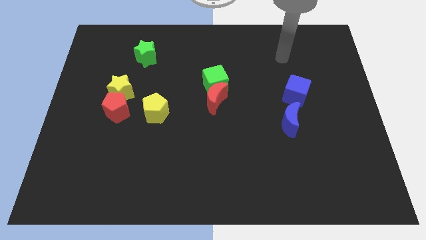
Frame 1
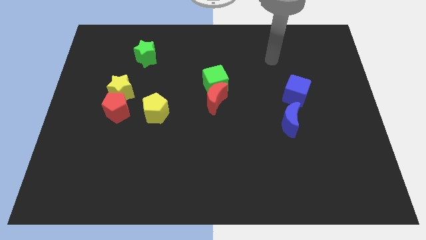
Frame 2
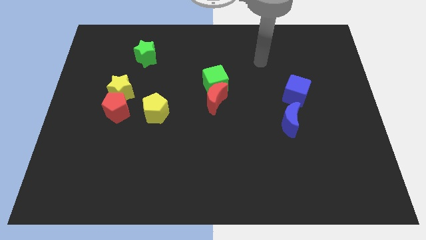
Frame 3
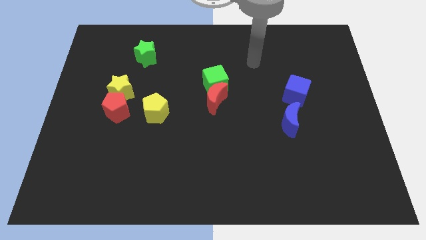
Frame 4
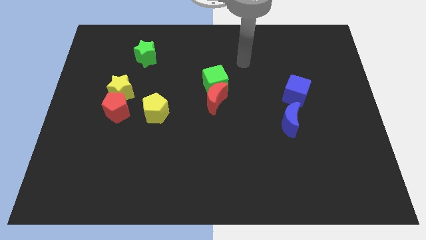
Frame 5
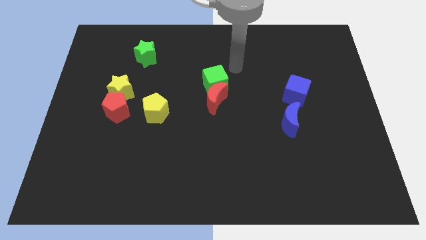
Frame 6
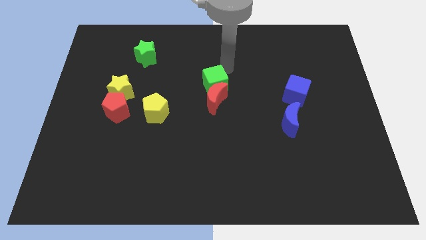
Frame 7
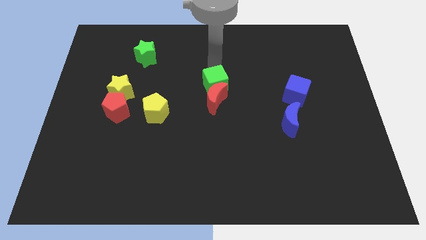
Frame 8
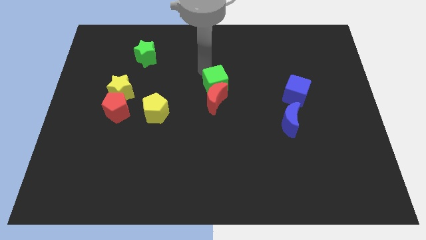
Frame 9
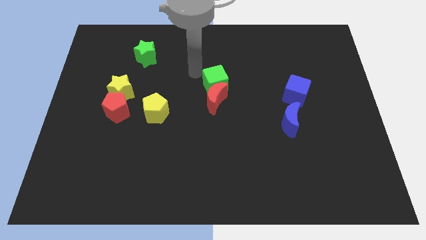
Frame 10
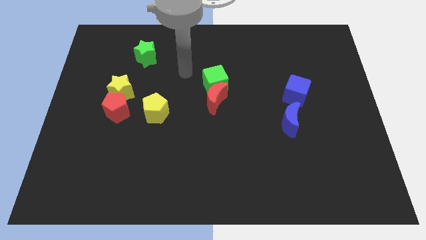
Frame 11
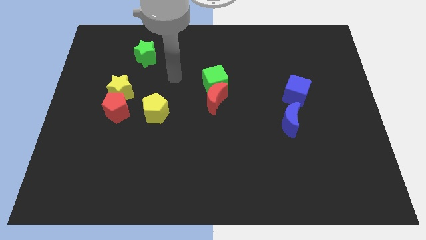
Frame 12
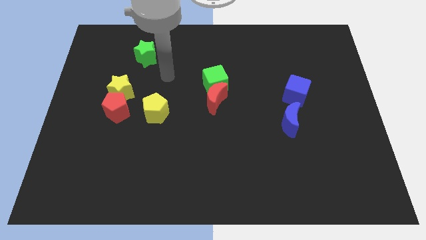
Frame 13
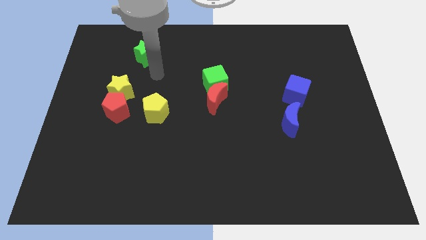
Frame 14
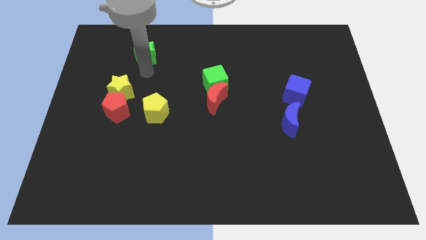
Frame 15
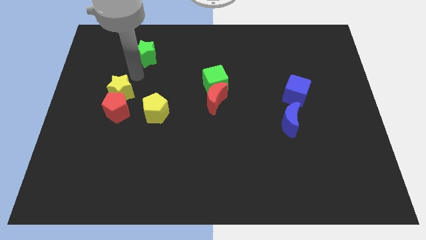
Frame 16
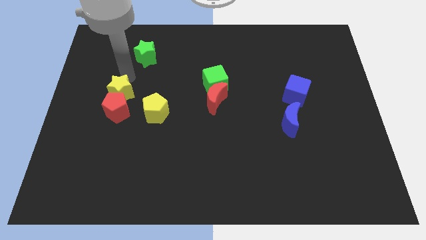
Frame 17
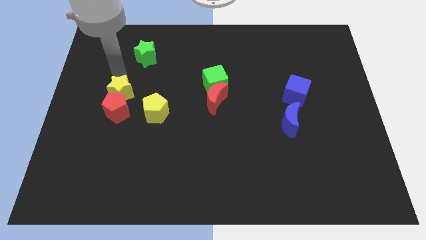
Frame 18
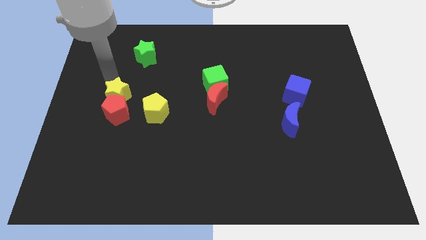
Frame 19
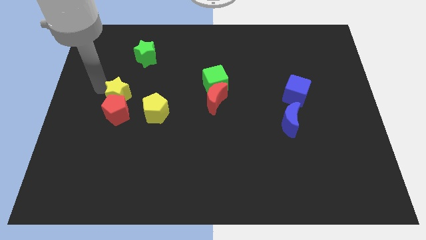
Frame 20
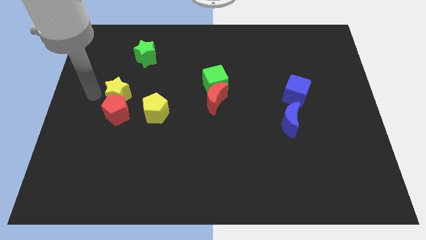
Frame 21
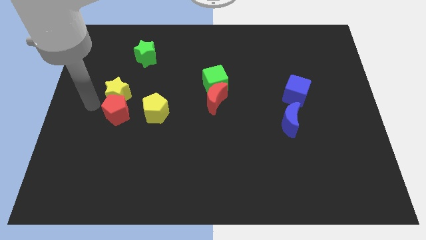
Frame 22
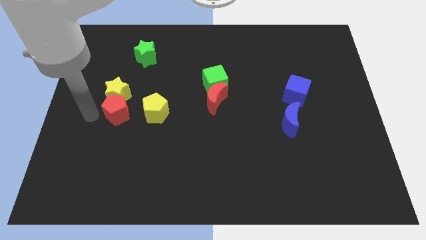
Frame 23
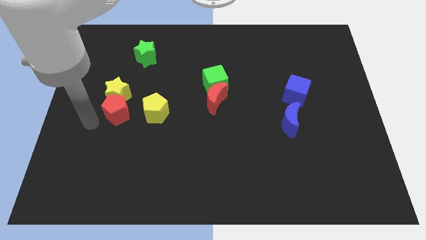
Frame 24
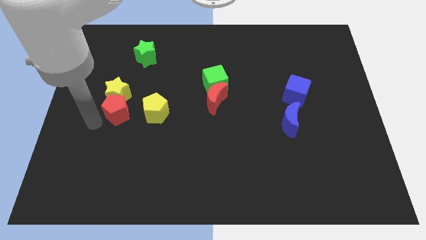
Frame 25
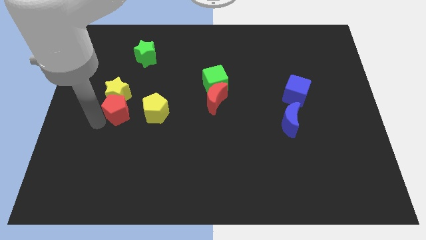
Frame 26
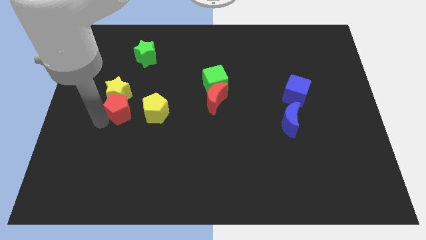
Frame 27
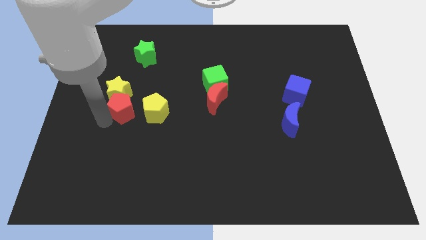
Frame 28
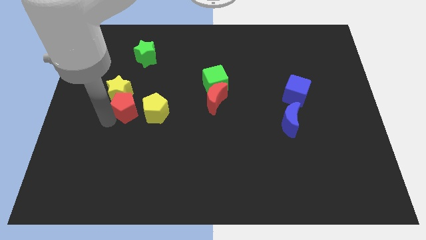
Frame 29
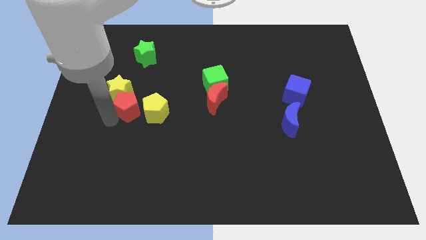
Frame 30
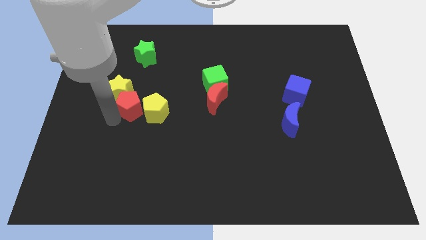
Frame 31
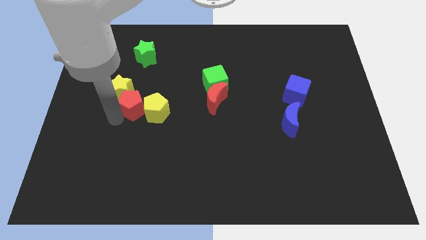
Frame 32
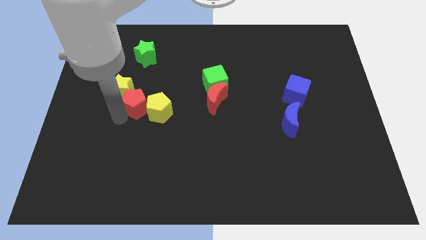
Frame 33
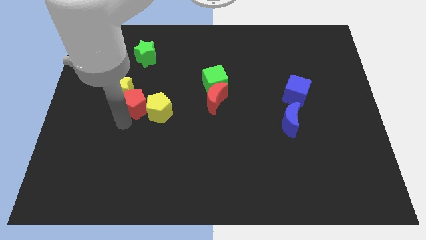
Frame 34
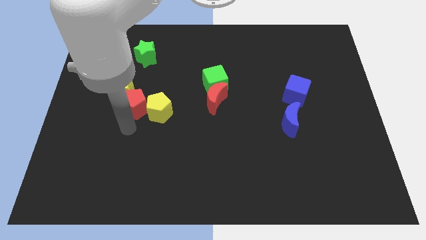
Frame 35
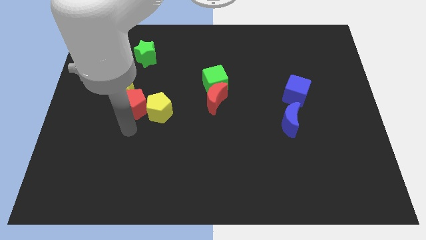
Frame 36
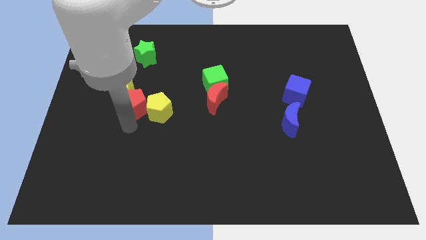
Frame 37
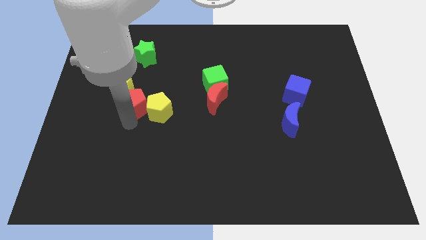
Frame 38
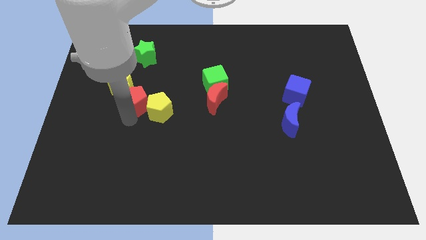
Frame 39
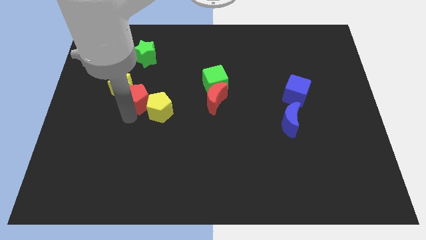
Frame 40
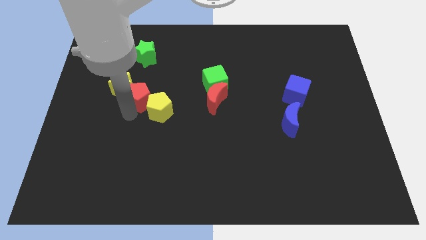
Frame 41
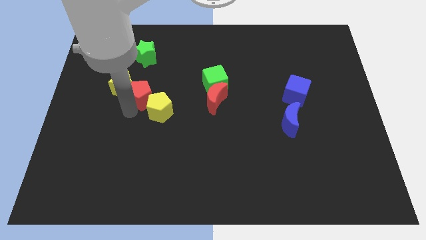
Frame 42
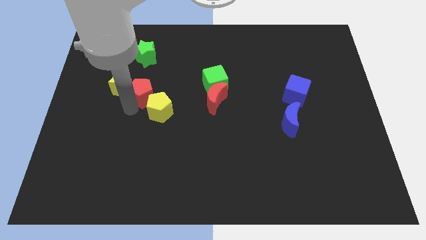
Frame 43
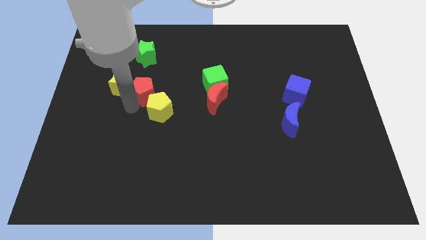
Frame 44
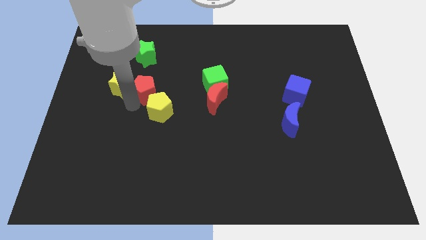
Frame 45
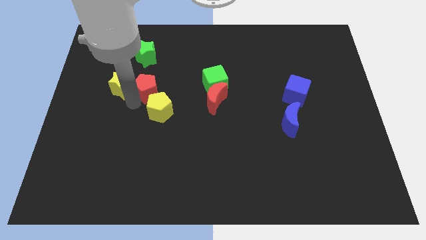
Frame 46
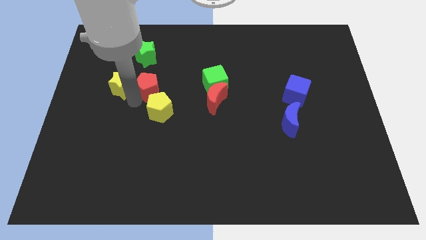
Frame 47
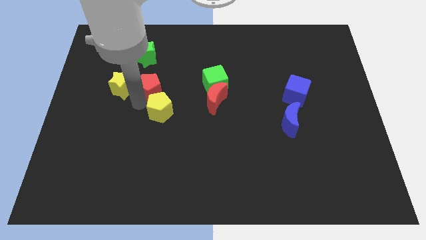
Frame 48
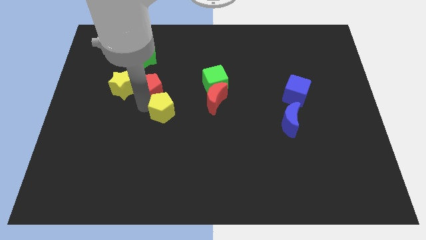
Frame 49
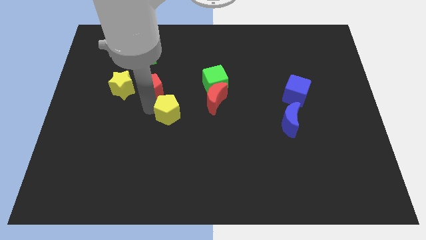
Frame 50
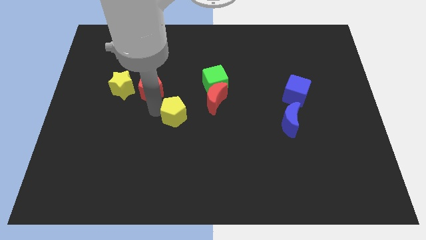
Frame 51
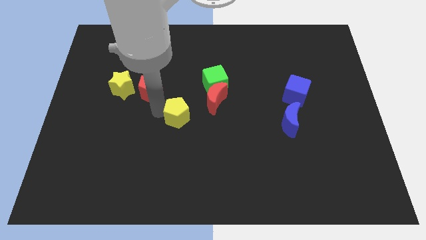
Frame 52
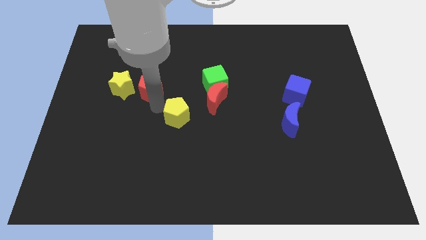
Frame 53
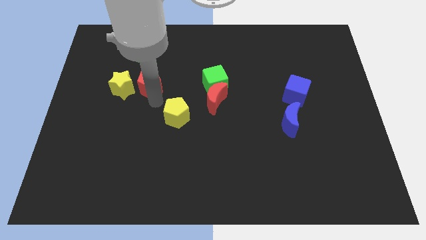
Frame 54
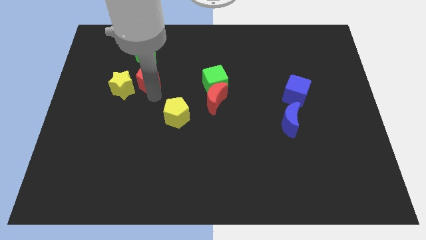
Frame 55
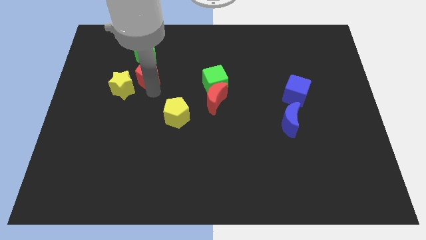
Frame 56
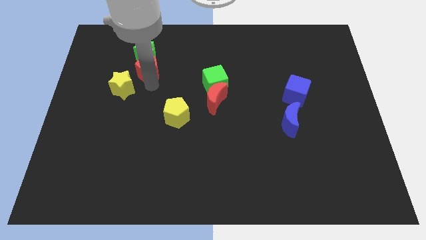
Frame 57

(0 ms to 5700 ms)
put the red pentagon next to the green star

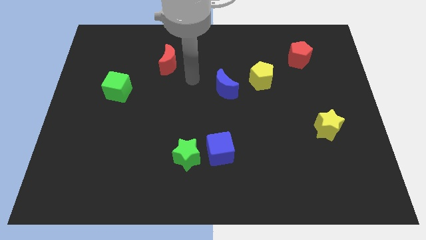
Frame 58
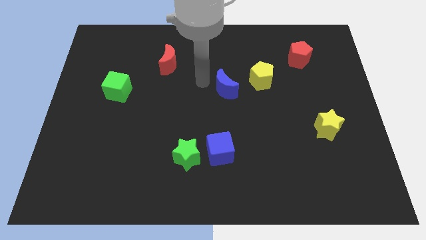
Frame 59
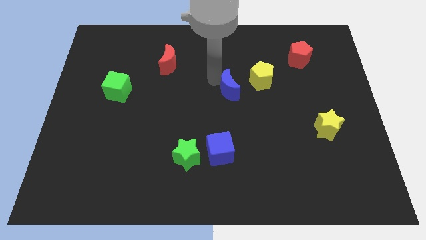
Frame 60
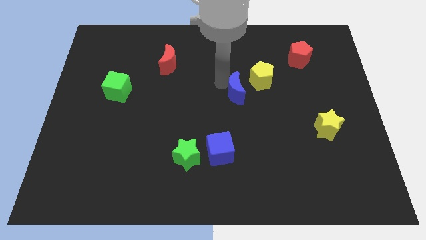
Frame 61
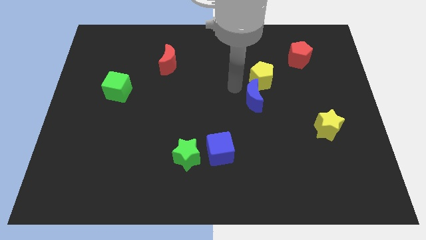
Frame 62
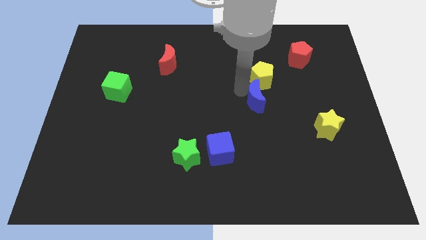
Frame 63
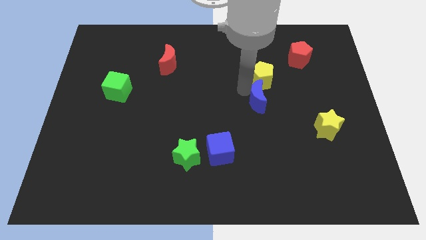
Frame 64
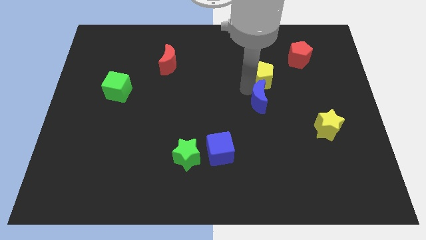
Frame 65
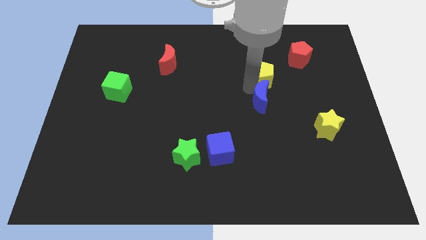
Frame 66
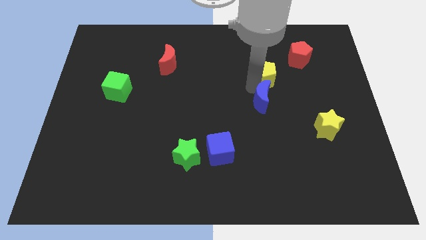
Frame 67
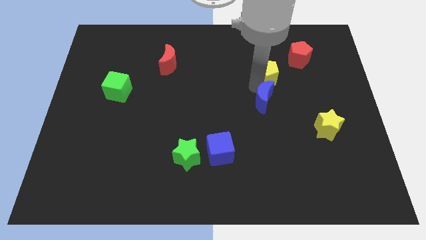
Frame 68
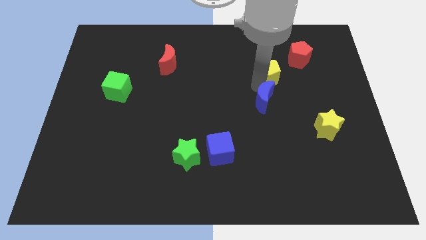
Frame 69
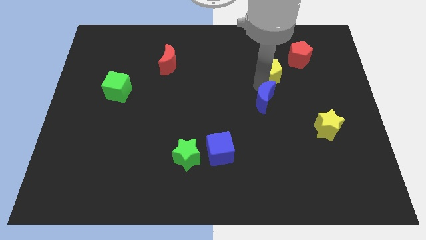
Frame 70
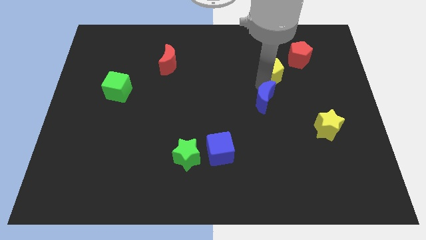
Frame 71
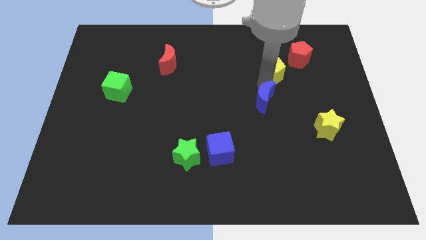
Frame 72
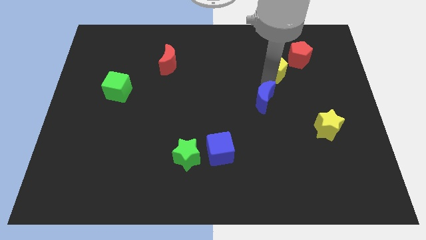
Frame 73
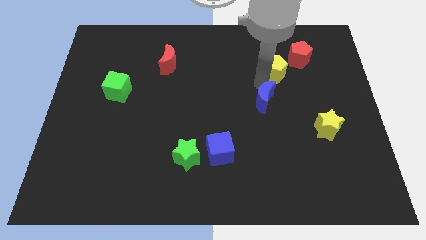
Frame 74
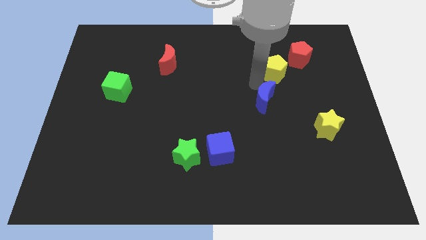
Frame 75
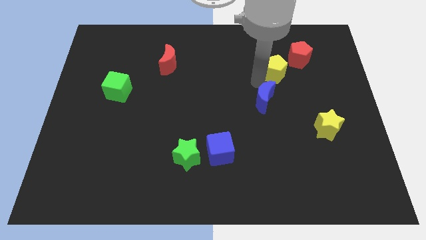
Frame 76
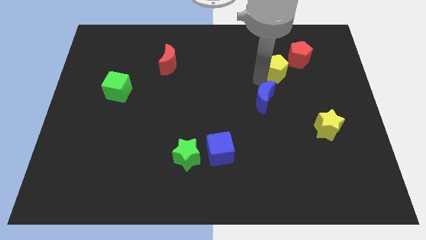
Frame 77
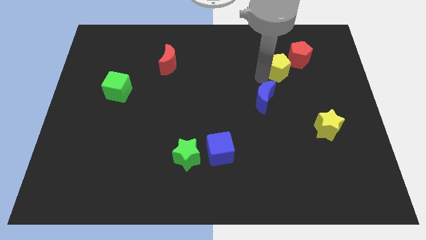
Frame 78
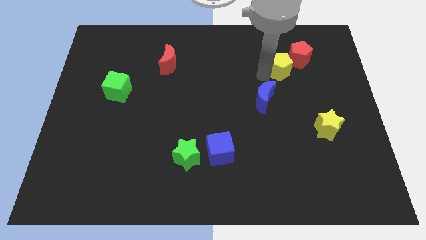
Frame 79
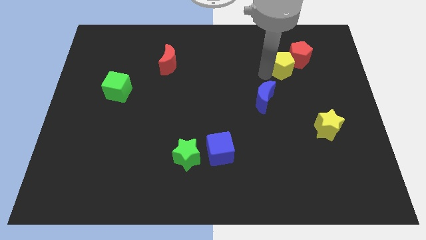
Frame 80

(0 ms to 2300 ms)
push the yellow pentagon to the red pentagon
